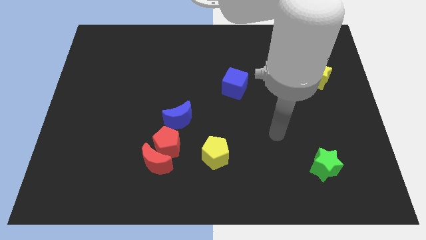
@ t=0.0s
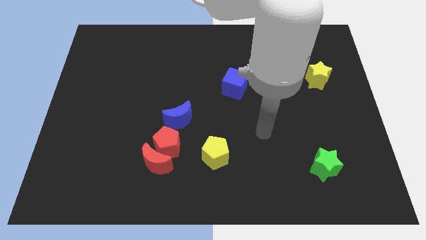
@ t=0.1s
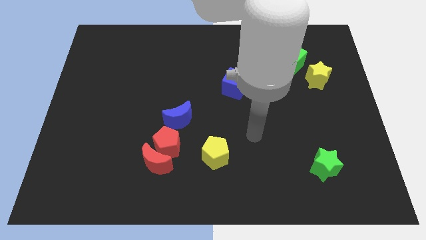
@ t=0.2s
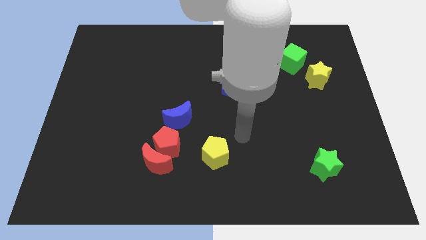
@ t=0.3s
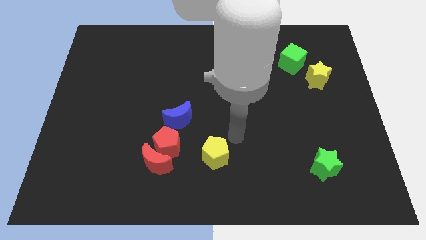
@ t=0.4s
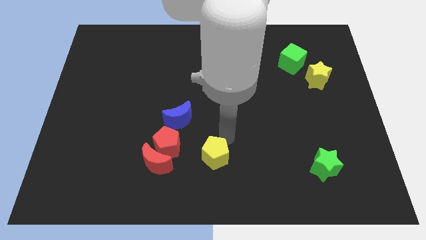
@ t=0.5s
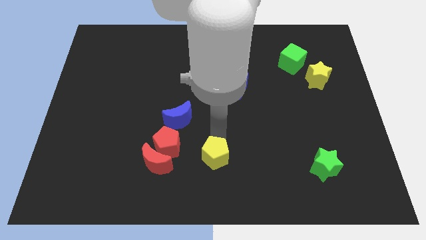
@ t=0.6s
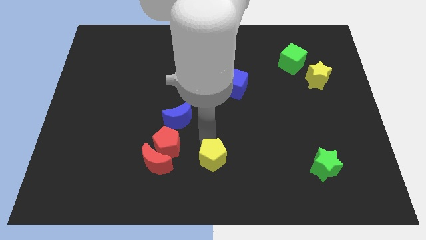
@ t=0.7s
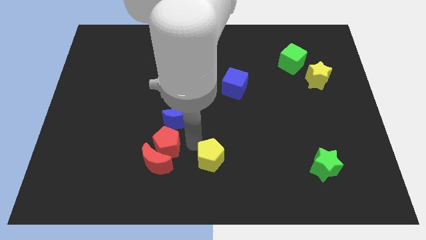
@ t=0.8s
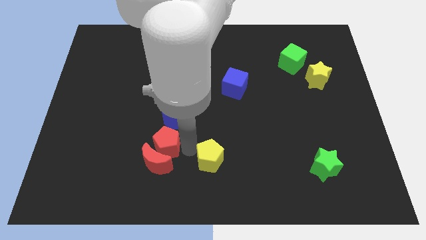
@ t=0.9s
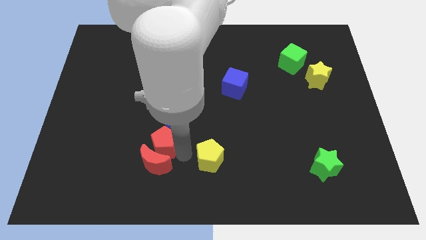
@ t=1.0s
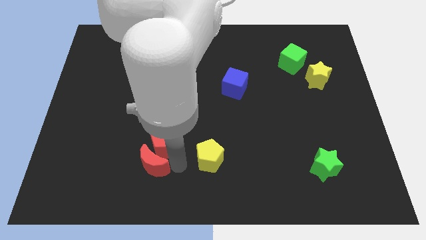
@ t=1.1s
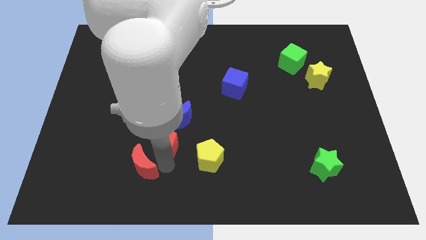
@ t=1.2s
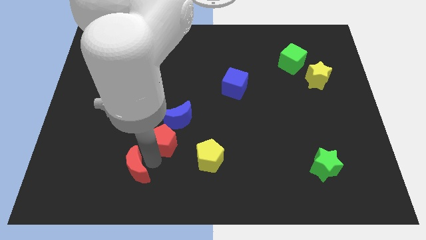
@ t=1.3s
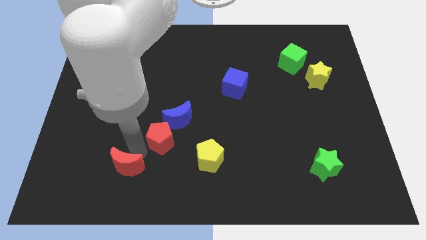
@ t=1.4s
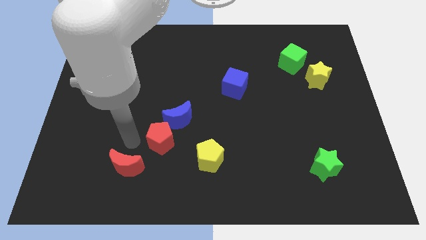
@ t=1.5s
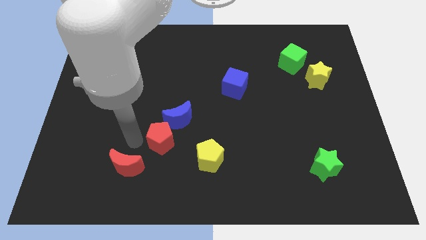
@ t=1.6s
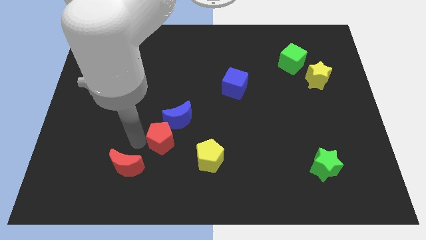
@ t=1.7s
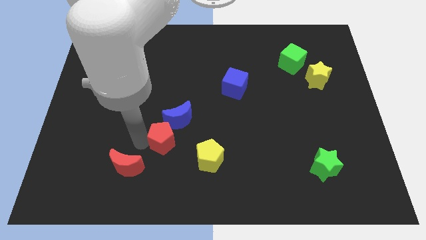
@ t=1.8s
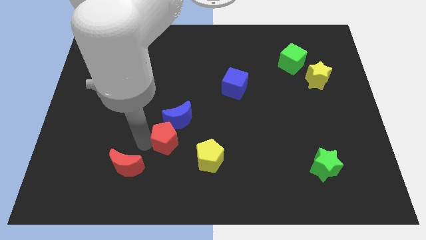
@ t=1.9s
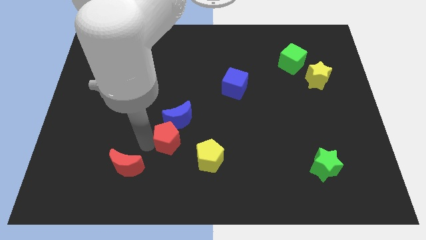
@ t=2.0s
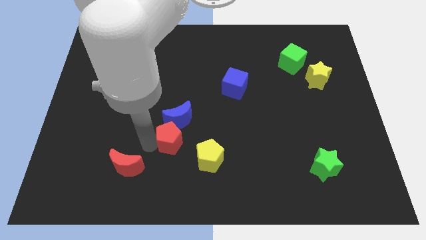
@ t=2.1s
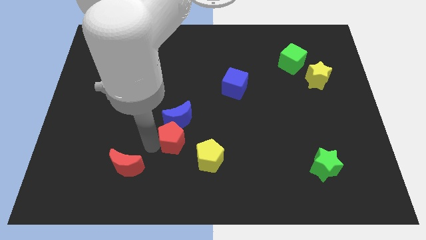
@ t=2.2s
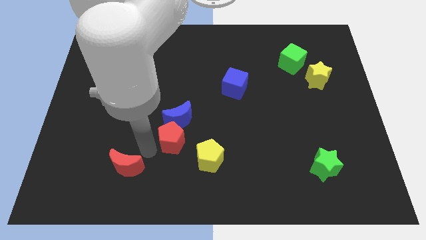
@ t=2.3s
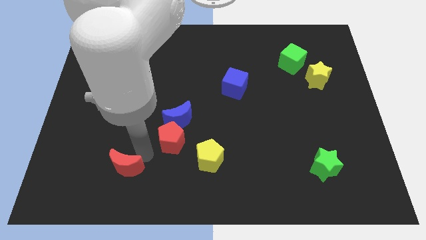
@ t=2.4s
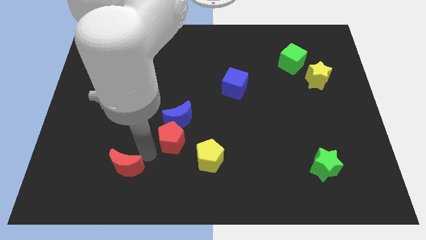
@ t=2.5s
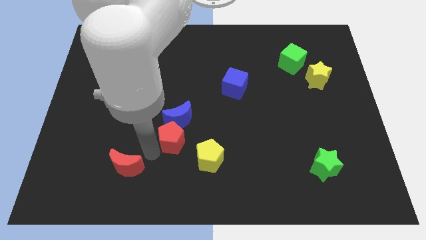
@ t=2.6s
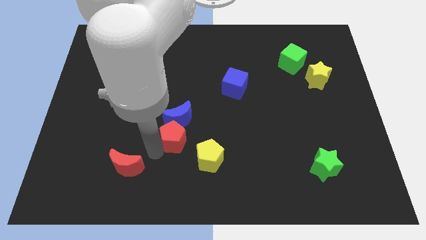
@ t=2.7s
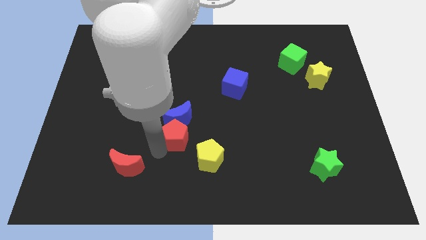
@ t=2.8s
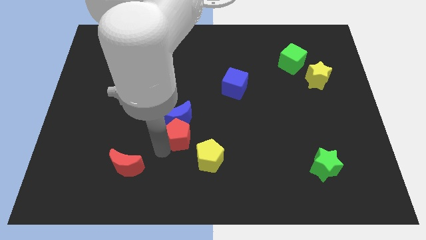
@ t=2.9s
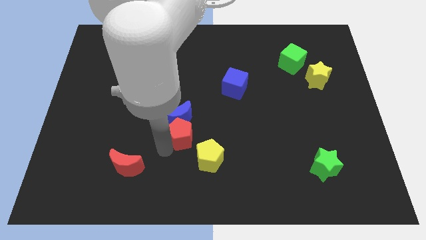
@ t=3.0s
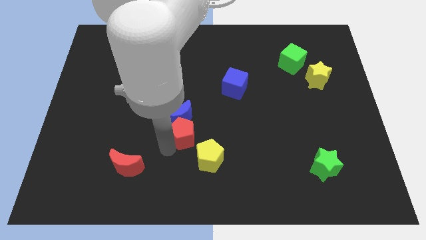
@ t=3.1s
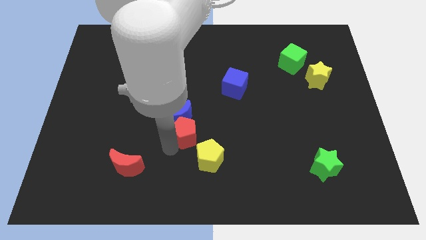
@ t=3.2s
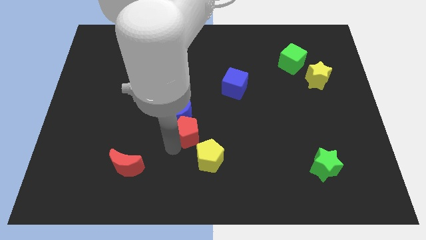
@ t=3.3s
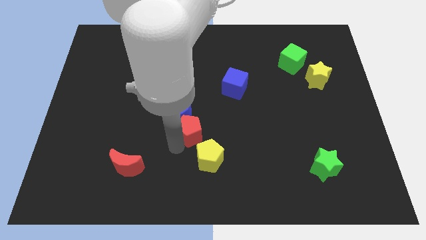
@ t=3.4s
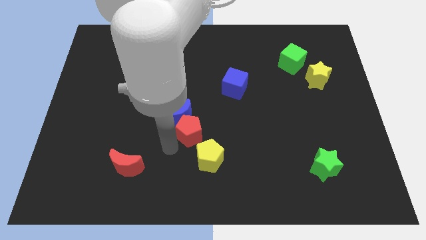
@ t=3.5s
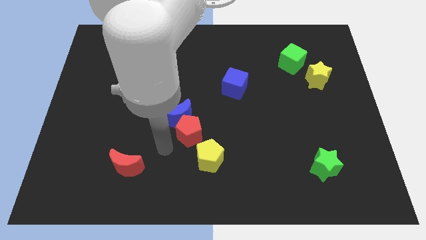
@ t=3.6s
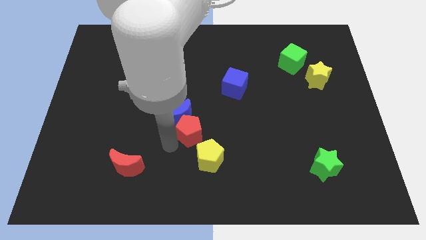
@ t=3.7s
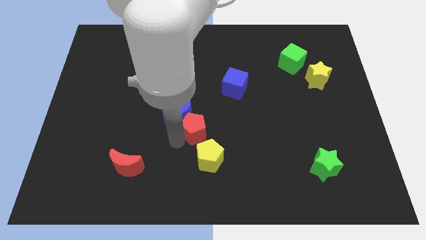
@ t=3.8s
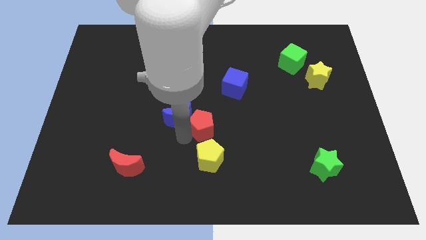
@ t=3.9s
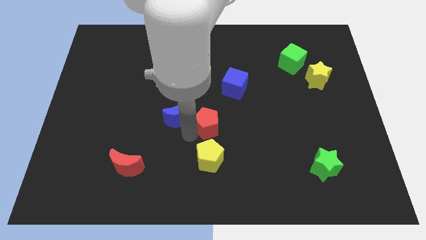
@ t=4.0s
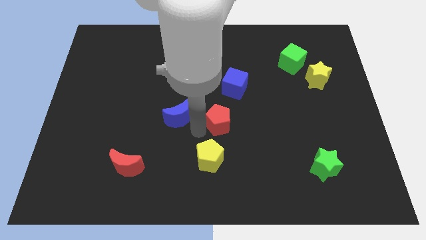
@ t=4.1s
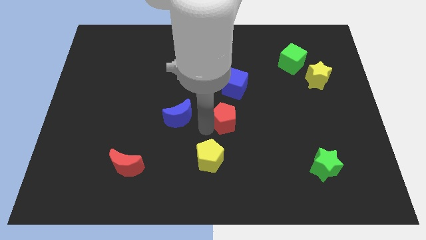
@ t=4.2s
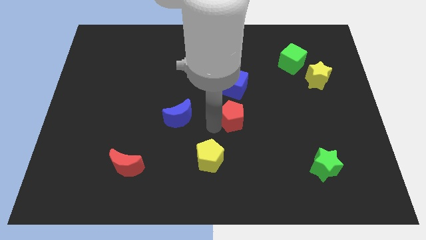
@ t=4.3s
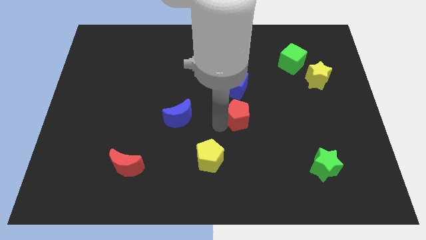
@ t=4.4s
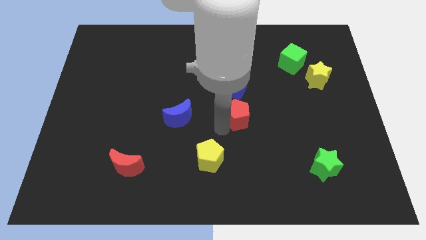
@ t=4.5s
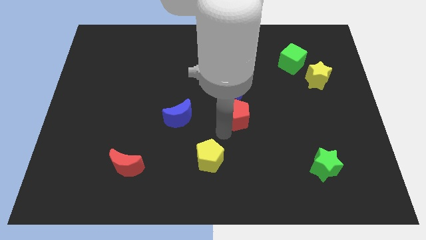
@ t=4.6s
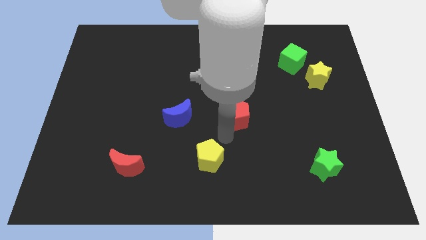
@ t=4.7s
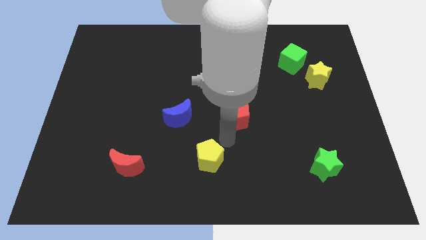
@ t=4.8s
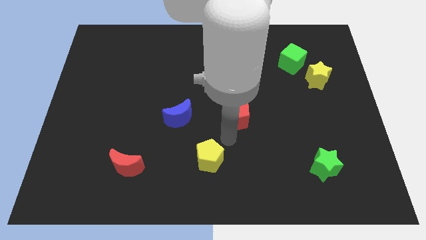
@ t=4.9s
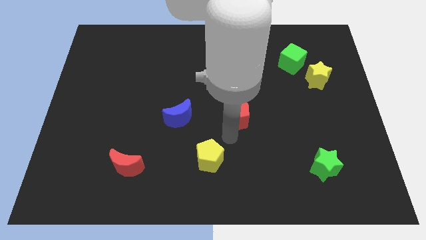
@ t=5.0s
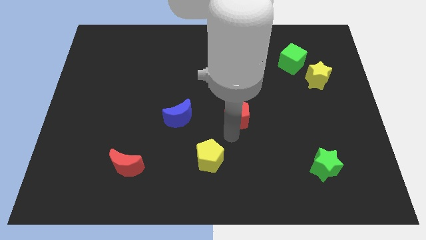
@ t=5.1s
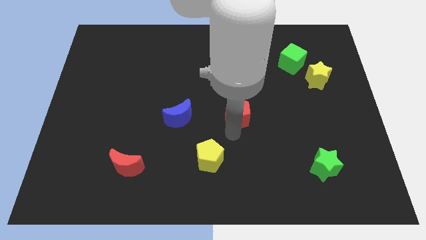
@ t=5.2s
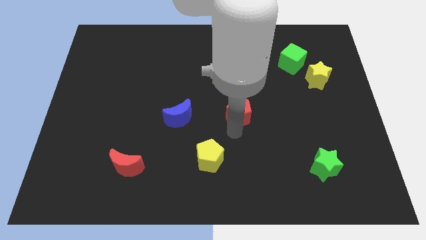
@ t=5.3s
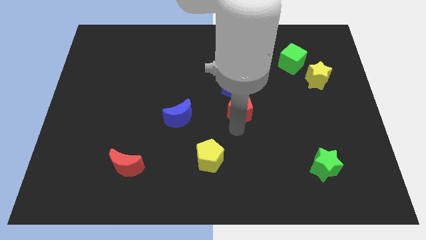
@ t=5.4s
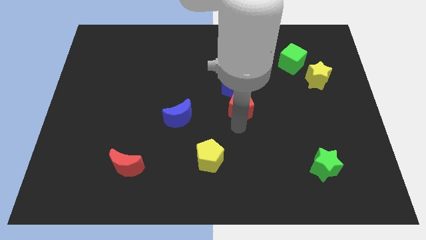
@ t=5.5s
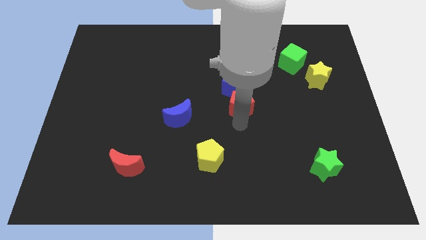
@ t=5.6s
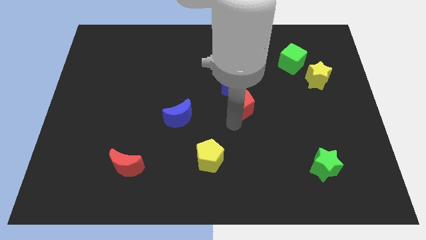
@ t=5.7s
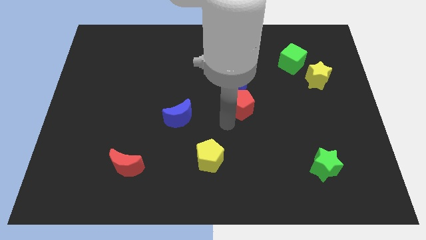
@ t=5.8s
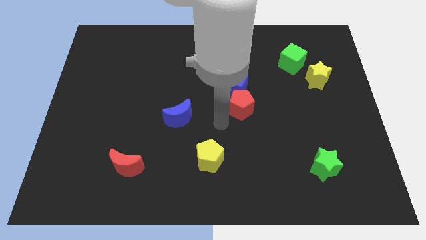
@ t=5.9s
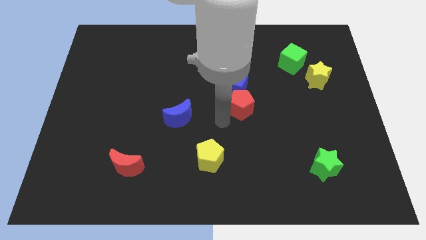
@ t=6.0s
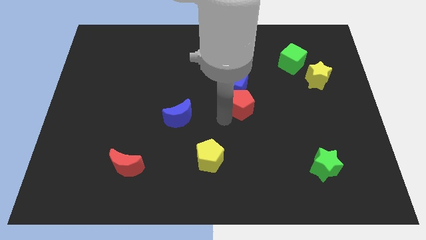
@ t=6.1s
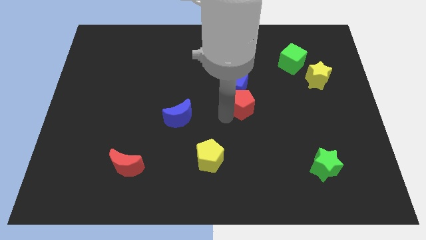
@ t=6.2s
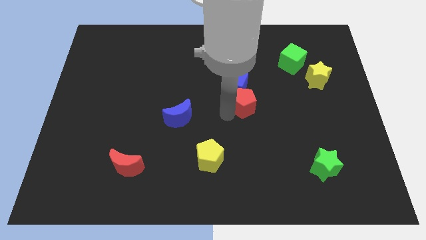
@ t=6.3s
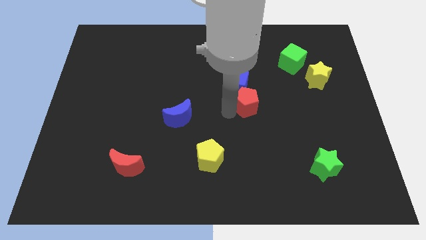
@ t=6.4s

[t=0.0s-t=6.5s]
move the red pentagon diagonally up and to the right

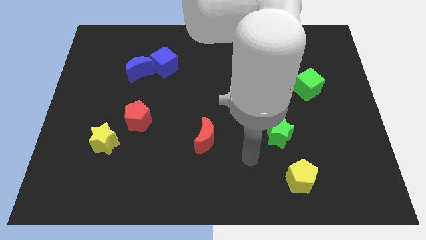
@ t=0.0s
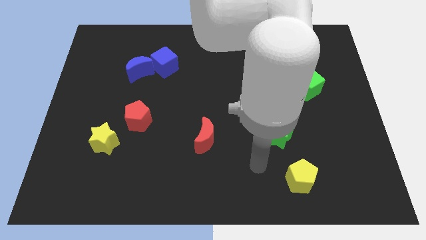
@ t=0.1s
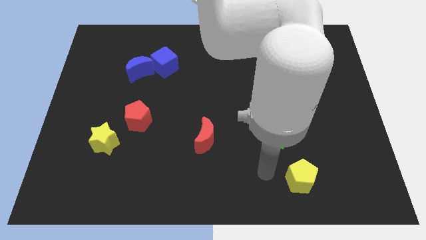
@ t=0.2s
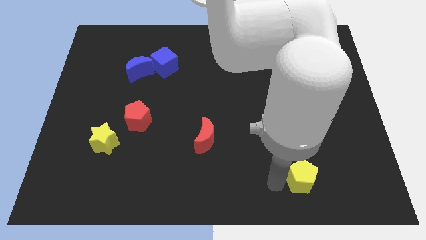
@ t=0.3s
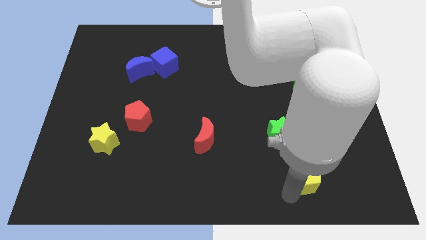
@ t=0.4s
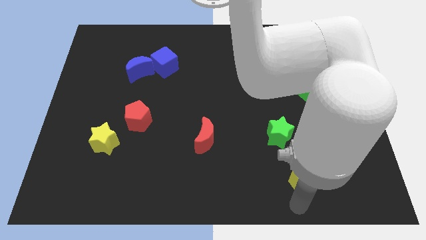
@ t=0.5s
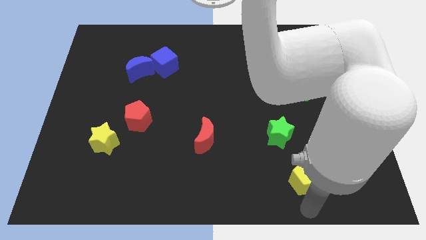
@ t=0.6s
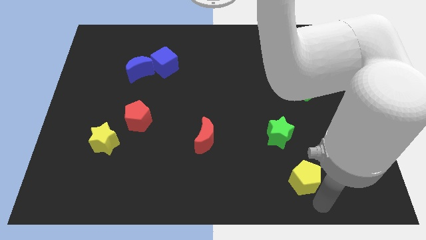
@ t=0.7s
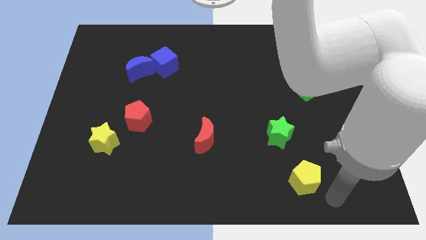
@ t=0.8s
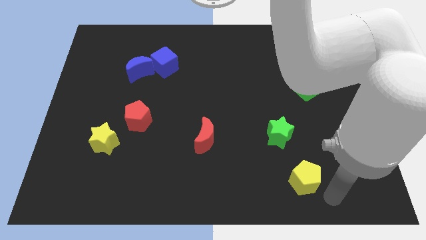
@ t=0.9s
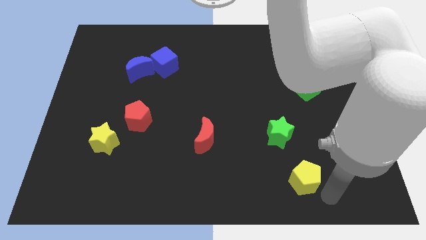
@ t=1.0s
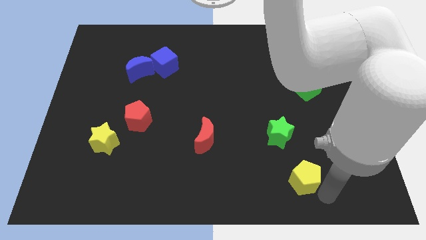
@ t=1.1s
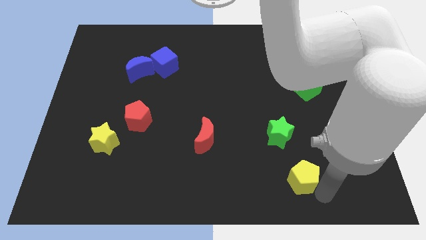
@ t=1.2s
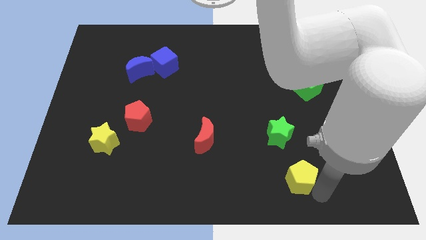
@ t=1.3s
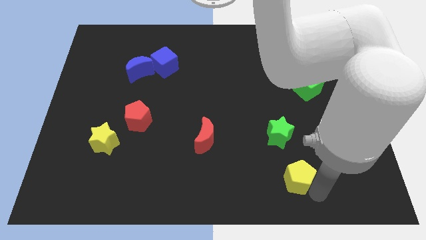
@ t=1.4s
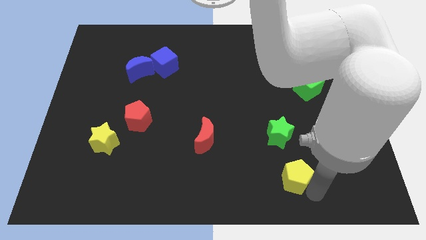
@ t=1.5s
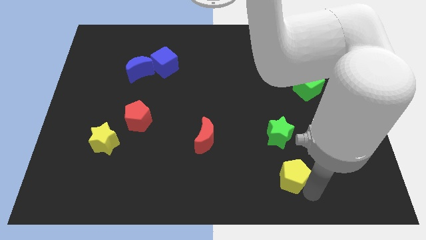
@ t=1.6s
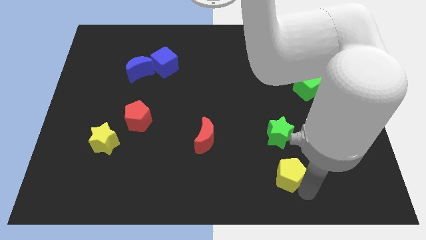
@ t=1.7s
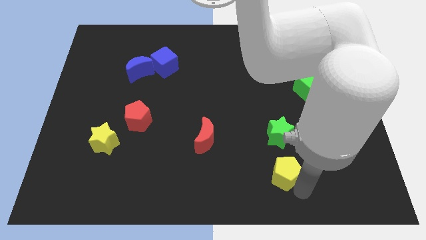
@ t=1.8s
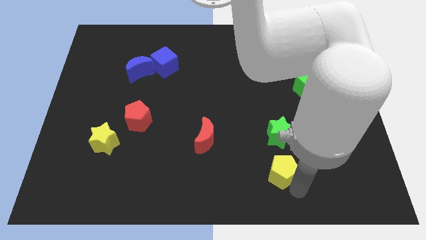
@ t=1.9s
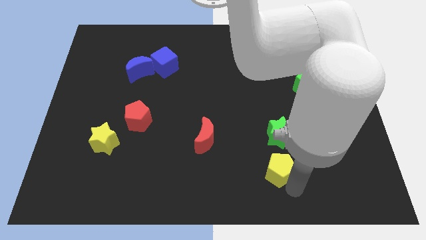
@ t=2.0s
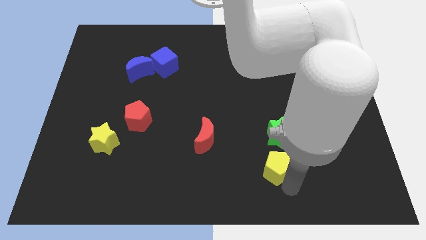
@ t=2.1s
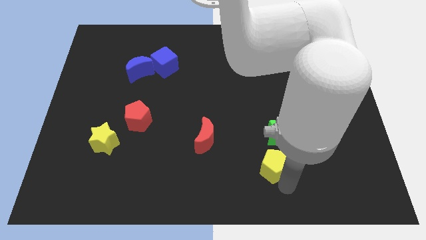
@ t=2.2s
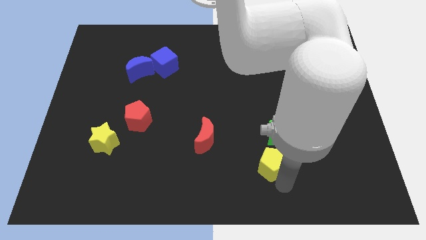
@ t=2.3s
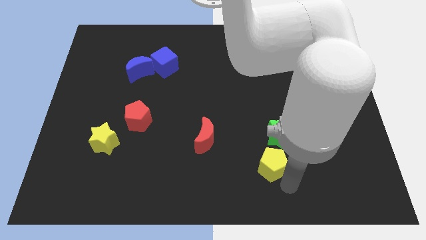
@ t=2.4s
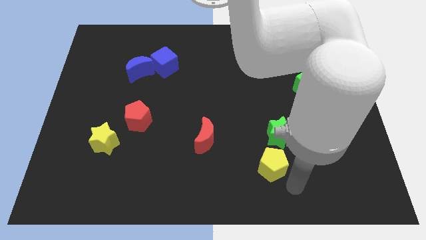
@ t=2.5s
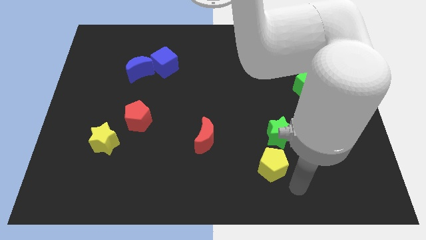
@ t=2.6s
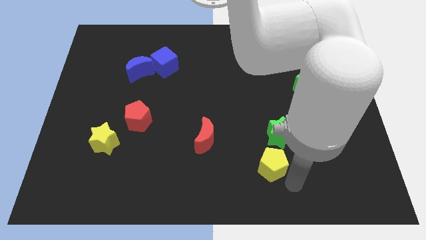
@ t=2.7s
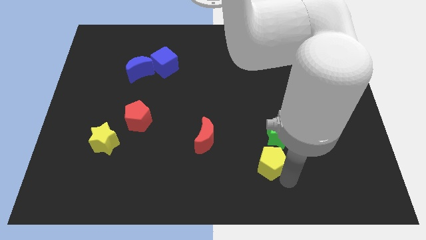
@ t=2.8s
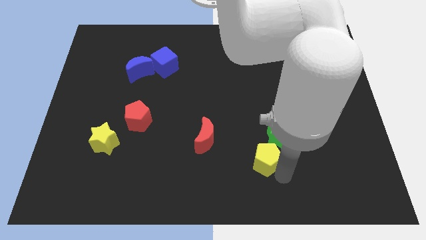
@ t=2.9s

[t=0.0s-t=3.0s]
slide the yellow pentagon slightly up and then left
